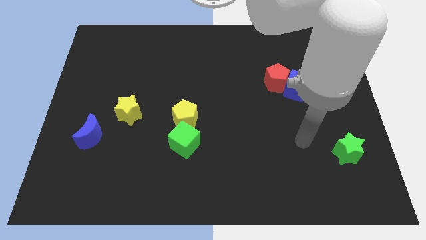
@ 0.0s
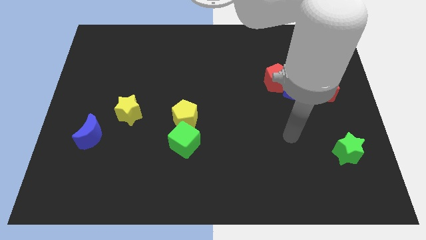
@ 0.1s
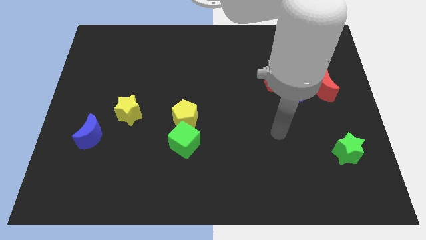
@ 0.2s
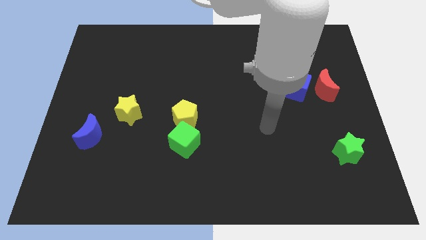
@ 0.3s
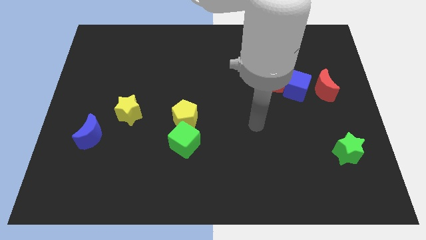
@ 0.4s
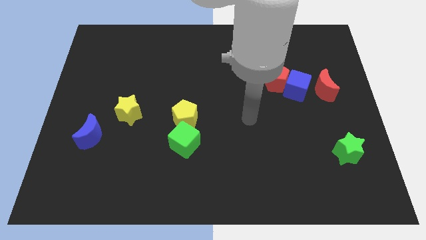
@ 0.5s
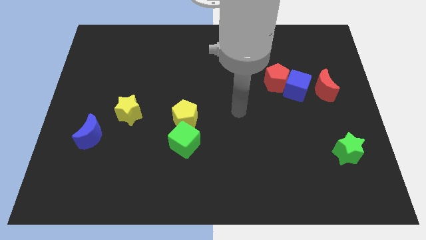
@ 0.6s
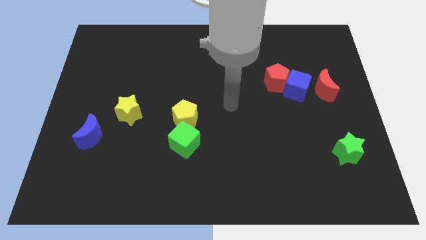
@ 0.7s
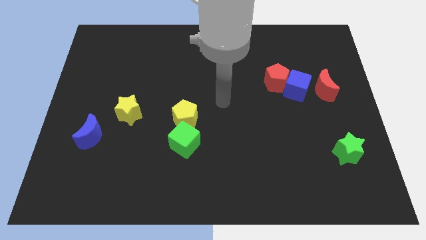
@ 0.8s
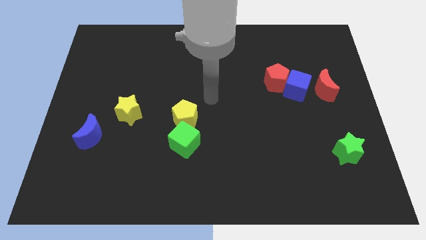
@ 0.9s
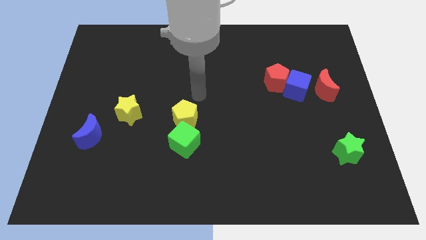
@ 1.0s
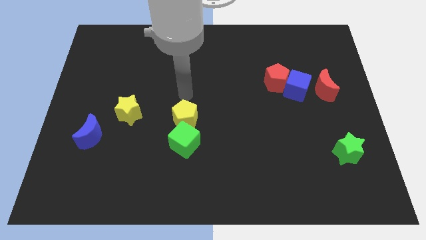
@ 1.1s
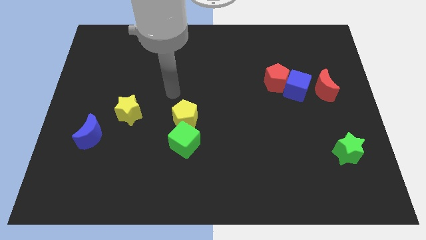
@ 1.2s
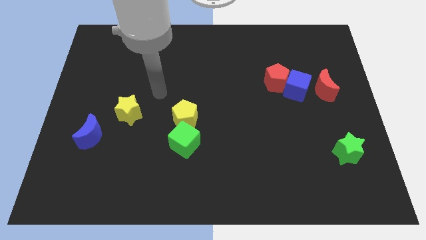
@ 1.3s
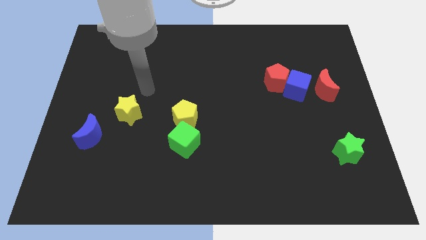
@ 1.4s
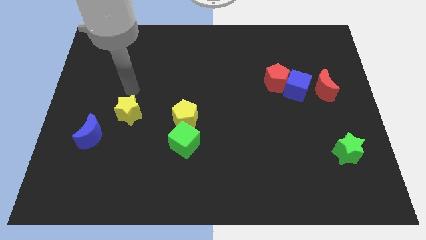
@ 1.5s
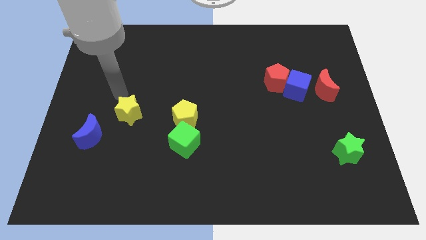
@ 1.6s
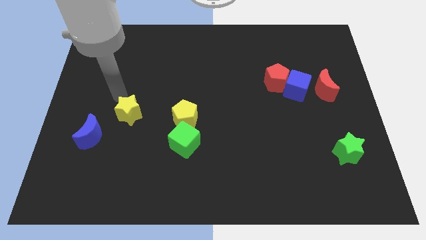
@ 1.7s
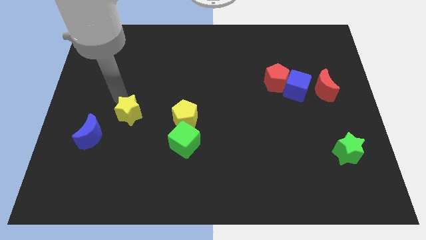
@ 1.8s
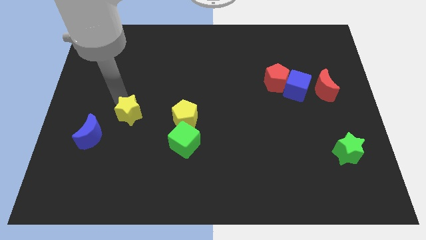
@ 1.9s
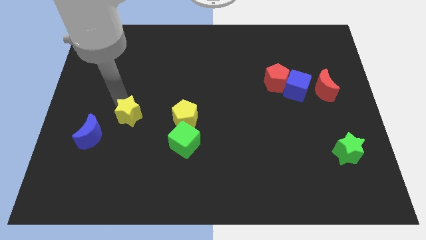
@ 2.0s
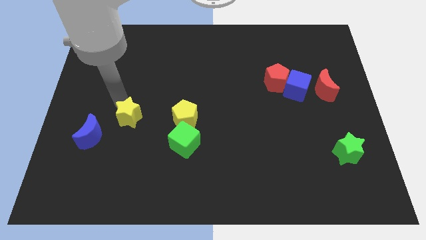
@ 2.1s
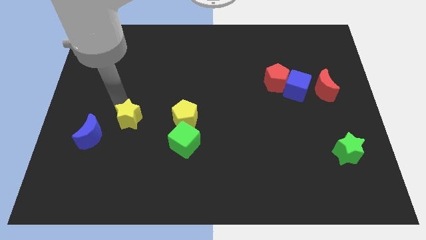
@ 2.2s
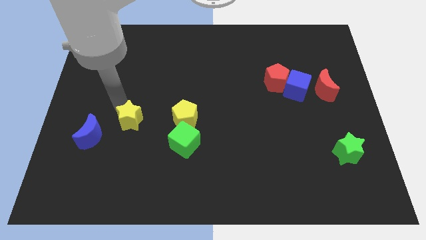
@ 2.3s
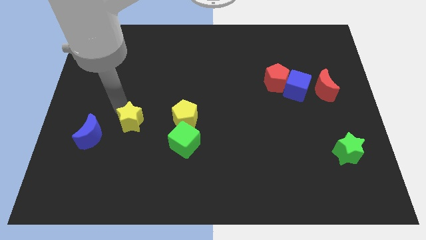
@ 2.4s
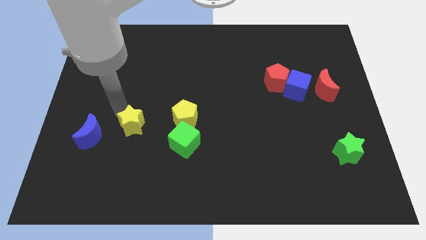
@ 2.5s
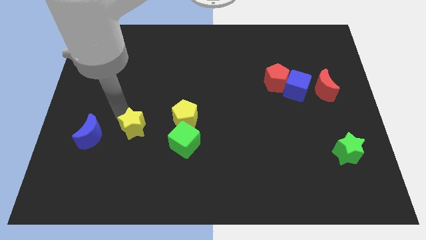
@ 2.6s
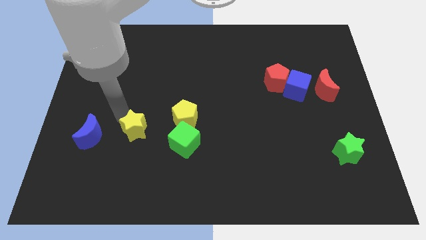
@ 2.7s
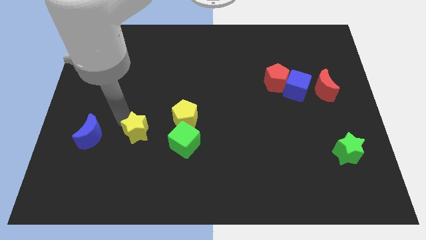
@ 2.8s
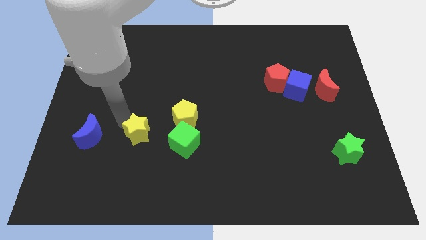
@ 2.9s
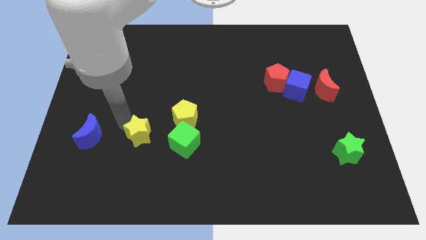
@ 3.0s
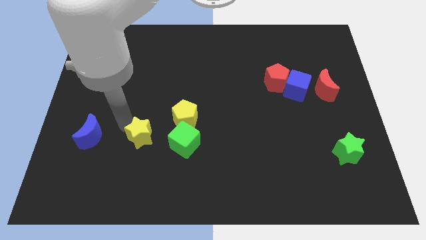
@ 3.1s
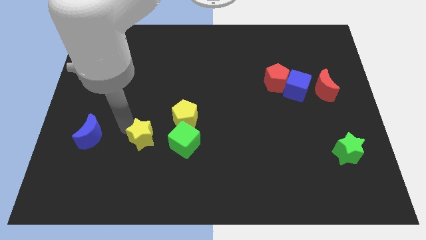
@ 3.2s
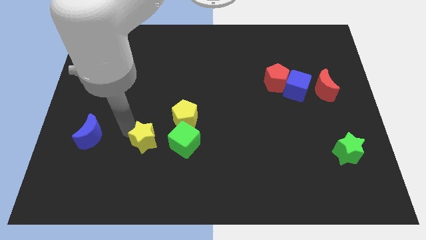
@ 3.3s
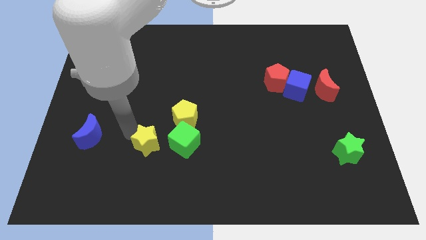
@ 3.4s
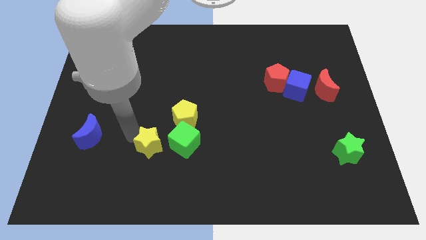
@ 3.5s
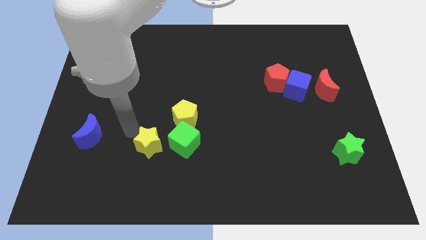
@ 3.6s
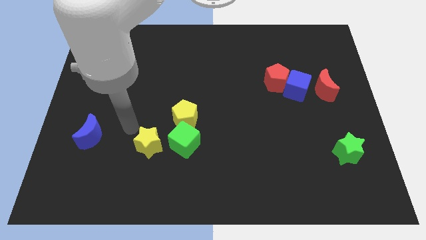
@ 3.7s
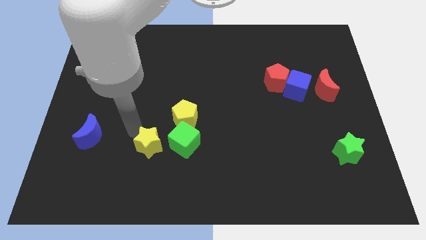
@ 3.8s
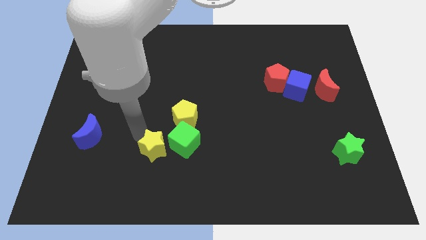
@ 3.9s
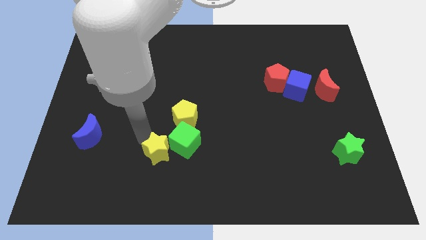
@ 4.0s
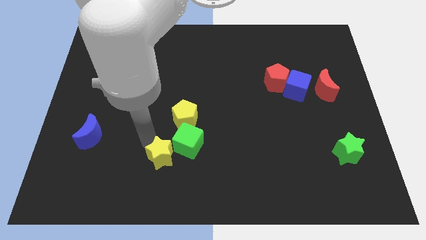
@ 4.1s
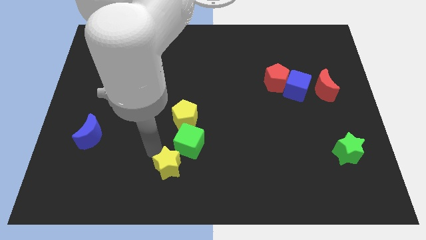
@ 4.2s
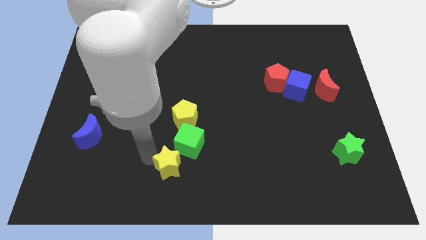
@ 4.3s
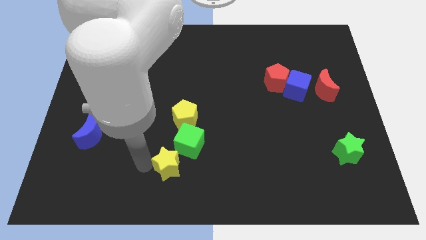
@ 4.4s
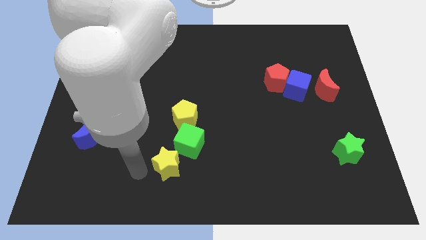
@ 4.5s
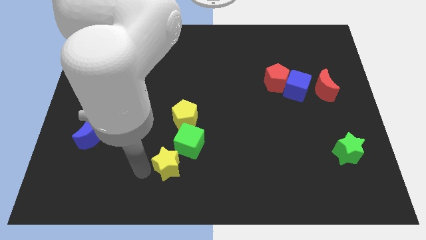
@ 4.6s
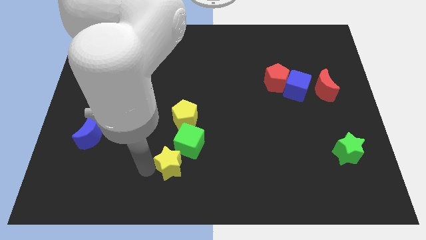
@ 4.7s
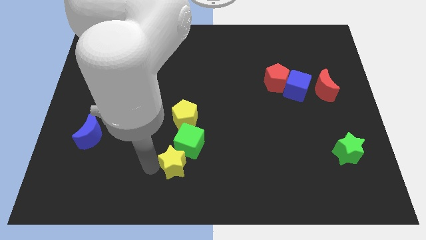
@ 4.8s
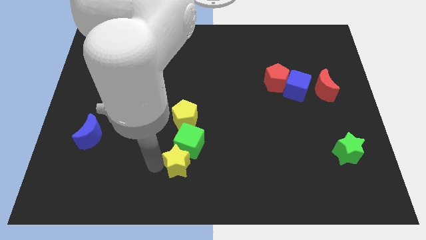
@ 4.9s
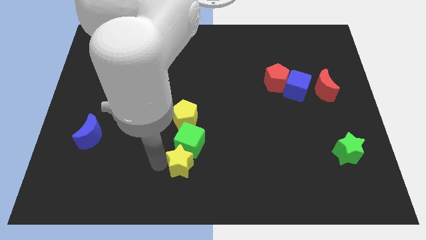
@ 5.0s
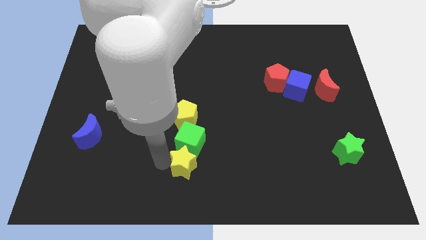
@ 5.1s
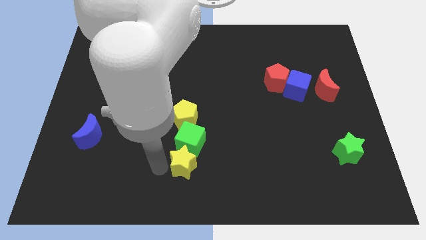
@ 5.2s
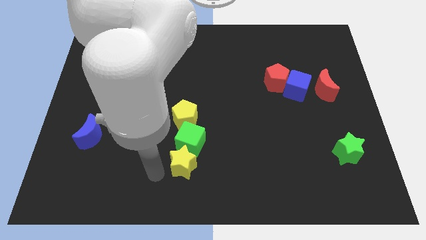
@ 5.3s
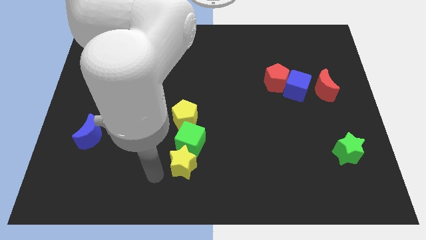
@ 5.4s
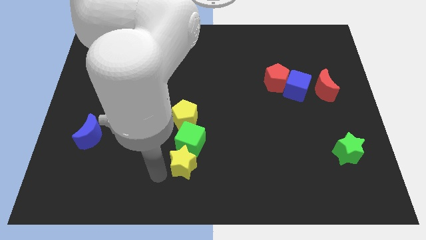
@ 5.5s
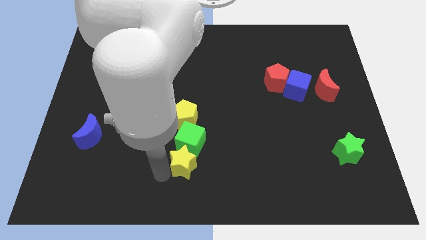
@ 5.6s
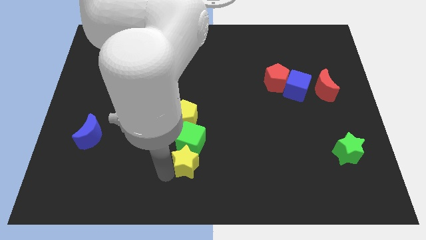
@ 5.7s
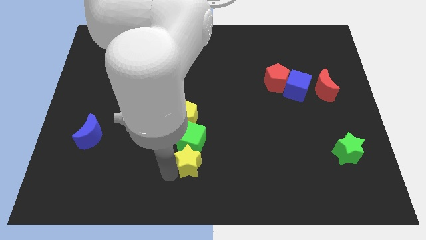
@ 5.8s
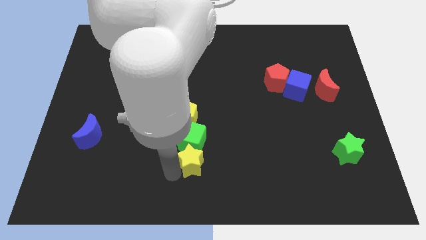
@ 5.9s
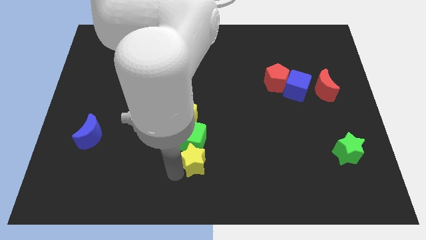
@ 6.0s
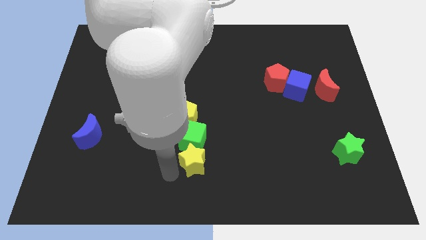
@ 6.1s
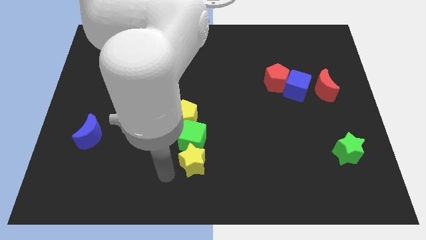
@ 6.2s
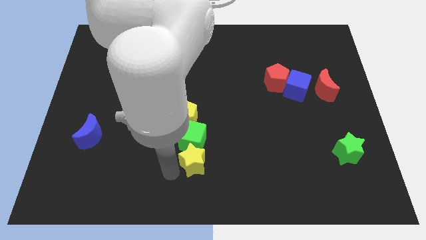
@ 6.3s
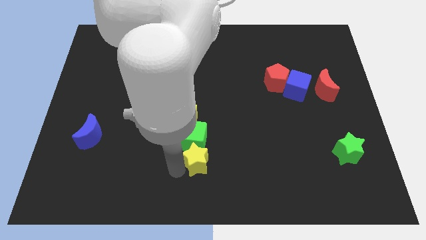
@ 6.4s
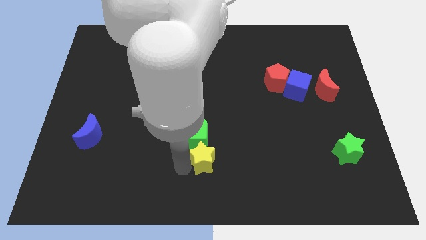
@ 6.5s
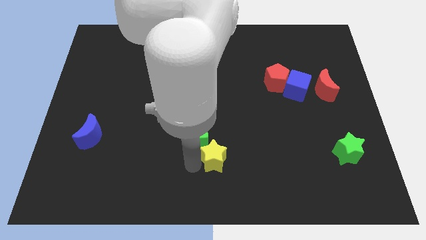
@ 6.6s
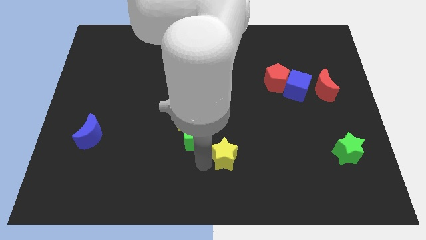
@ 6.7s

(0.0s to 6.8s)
push the yellow star right of the green cube
